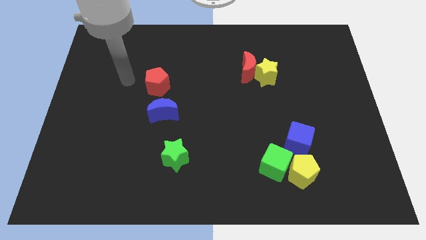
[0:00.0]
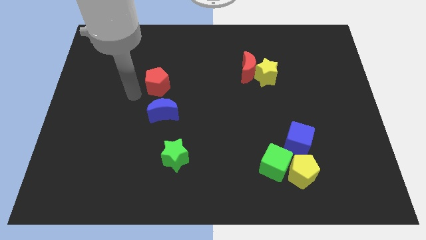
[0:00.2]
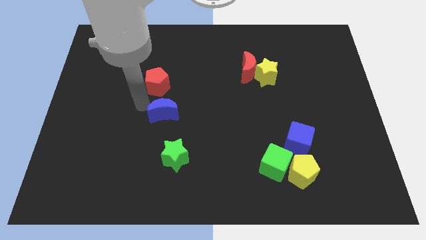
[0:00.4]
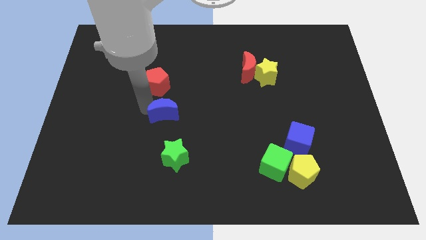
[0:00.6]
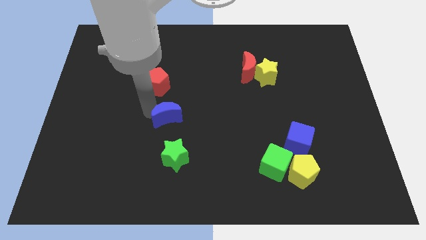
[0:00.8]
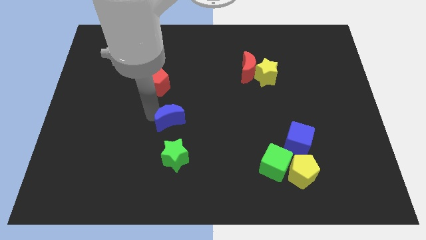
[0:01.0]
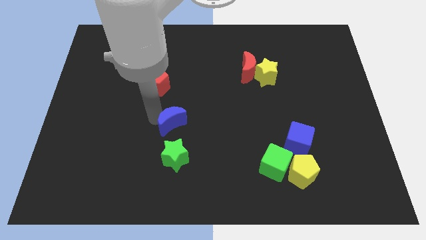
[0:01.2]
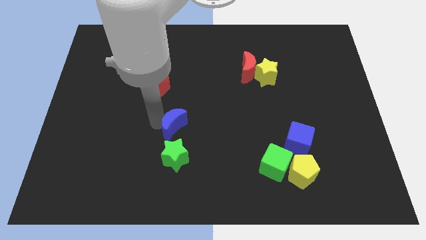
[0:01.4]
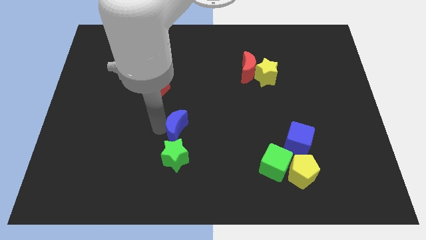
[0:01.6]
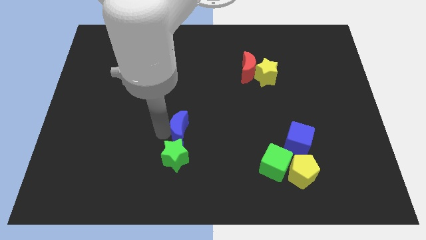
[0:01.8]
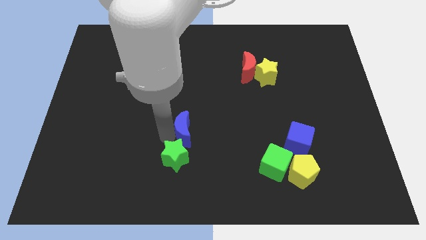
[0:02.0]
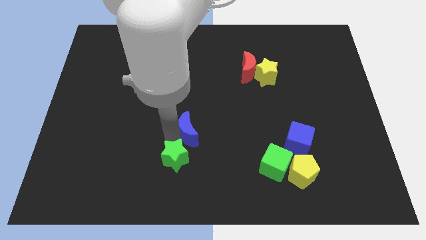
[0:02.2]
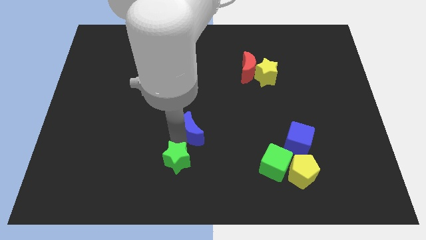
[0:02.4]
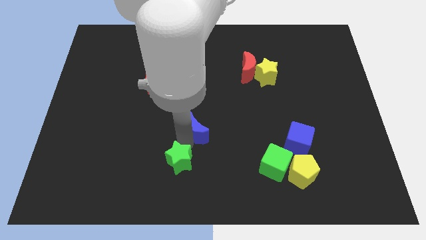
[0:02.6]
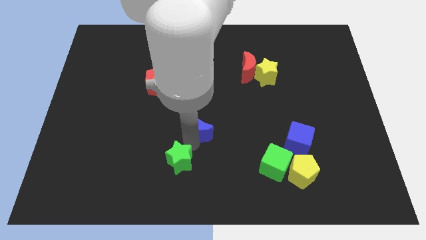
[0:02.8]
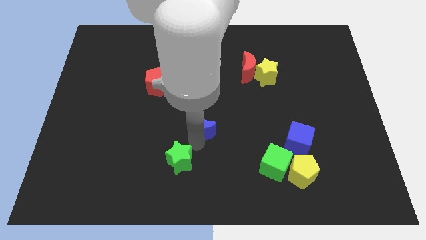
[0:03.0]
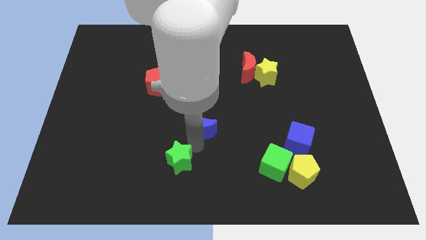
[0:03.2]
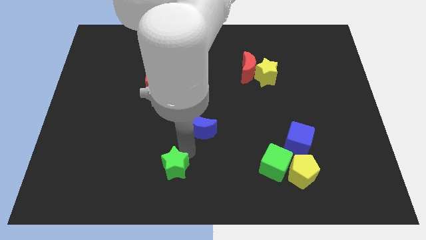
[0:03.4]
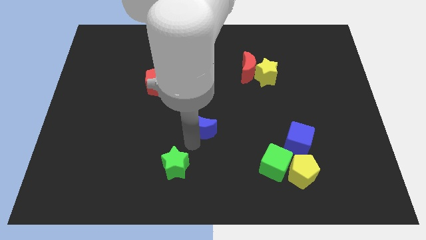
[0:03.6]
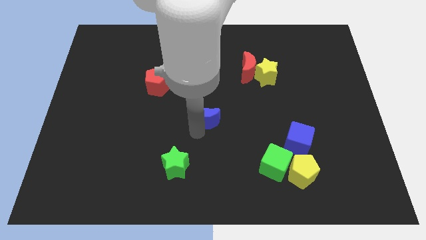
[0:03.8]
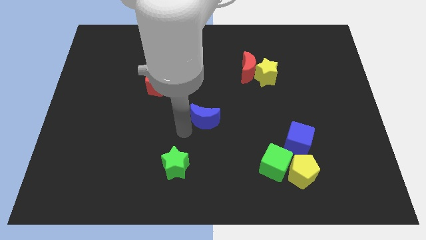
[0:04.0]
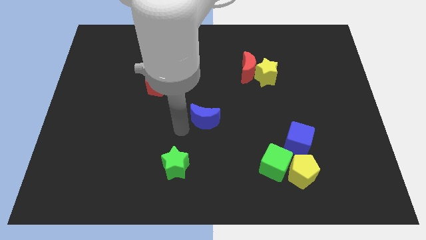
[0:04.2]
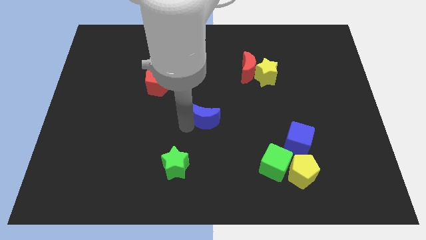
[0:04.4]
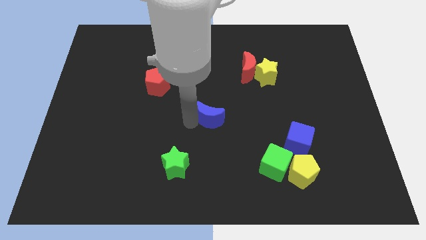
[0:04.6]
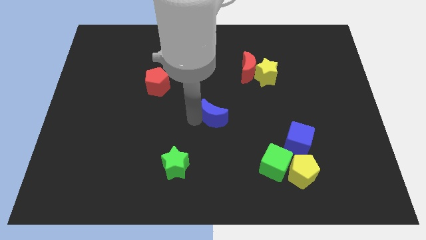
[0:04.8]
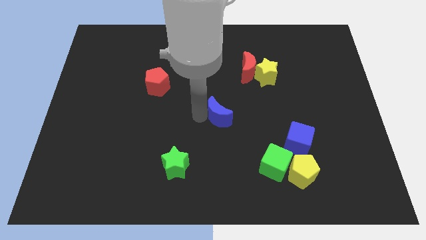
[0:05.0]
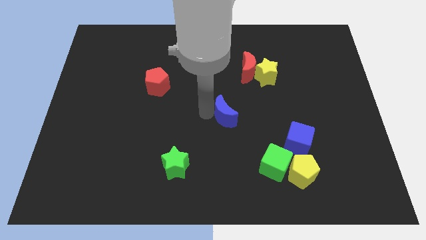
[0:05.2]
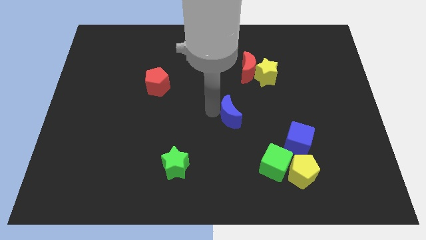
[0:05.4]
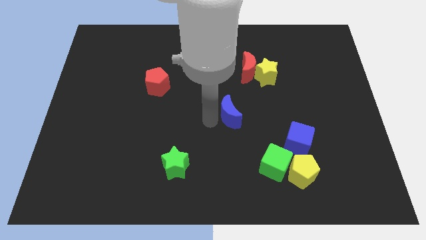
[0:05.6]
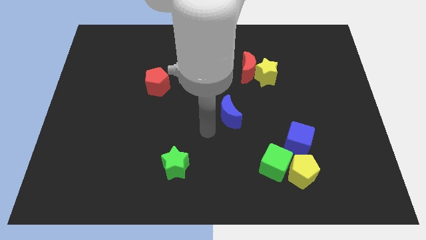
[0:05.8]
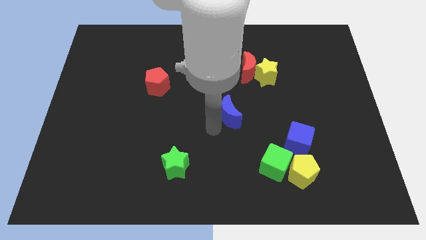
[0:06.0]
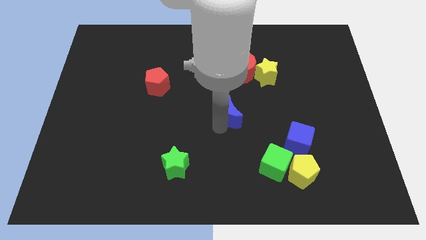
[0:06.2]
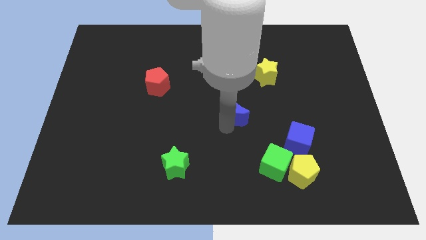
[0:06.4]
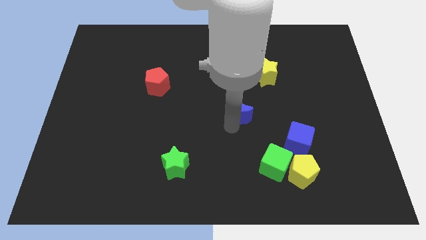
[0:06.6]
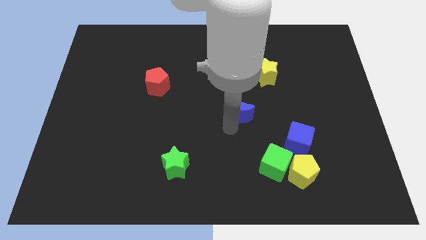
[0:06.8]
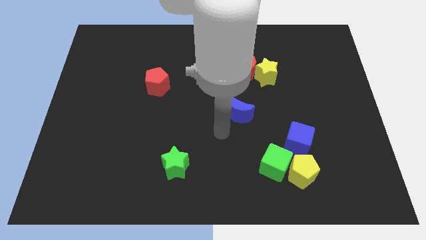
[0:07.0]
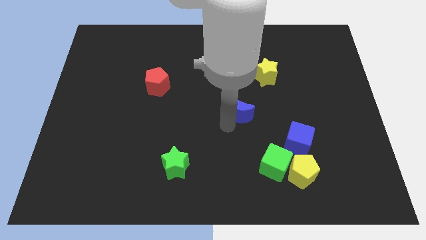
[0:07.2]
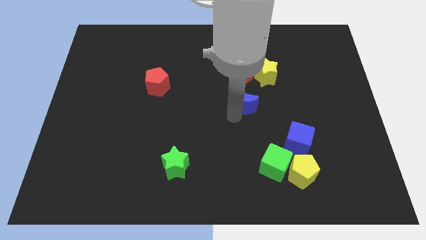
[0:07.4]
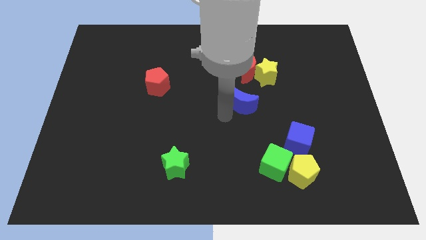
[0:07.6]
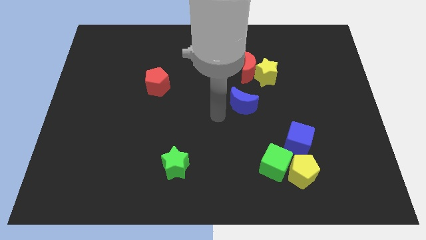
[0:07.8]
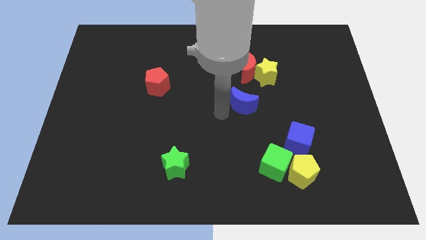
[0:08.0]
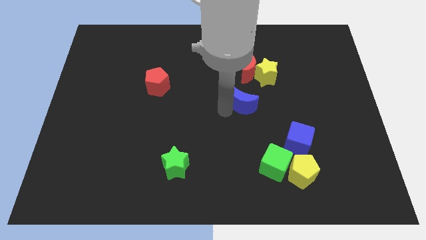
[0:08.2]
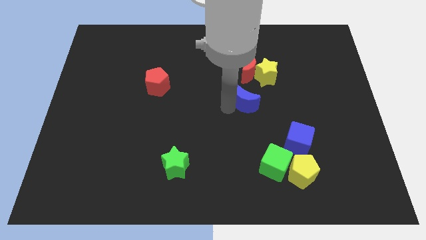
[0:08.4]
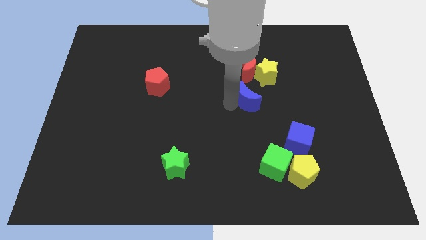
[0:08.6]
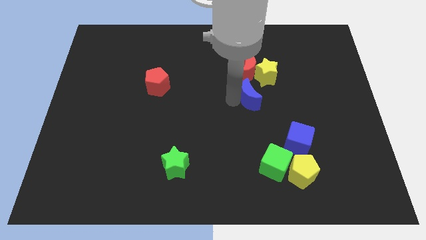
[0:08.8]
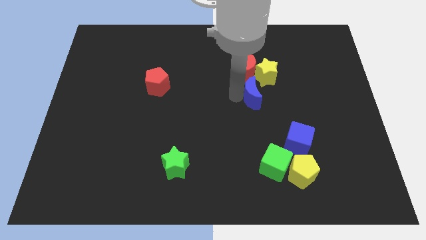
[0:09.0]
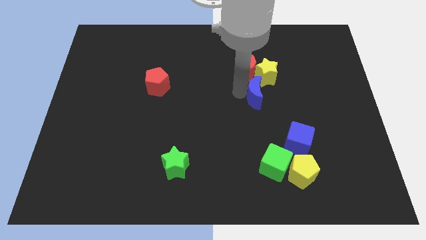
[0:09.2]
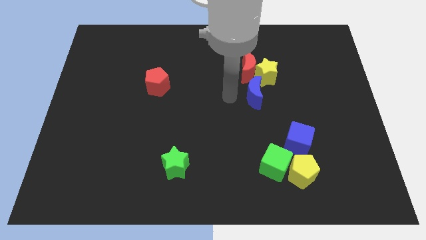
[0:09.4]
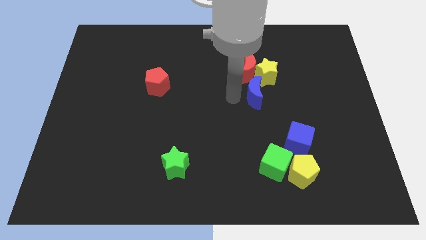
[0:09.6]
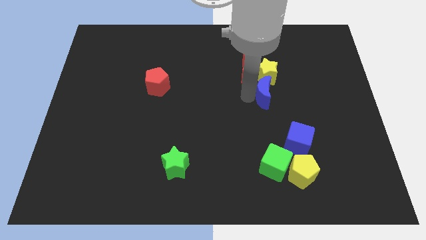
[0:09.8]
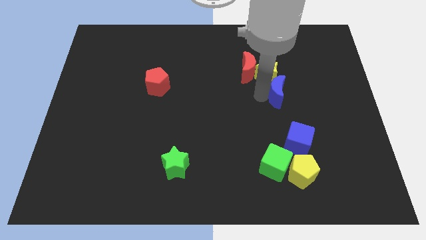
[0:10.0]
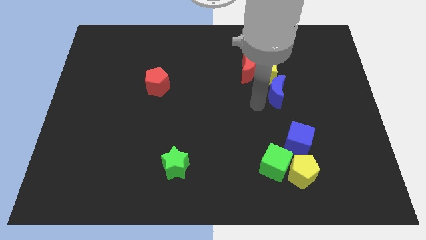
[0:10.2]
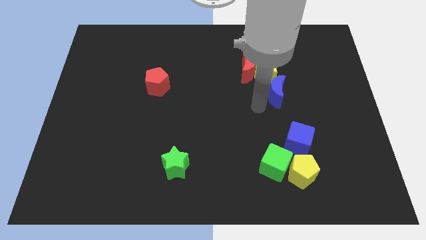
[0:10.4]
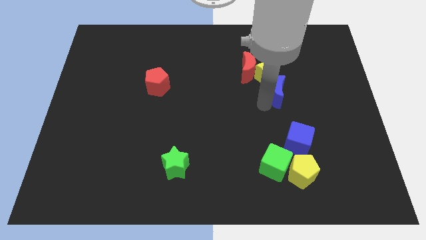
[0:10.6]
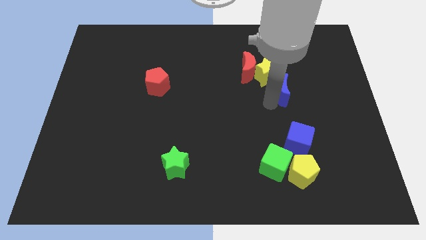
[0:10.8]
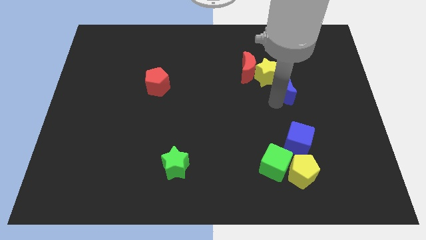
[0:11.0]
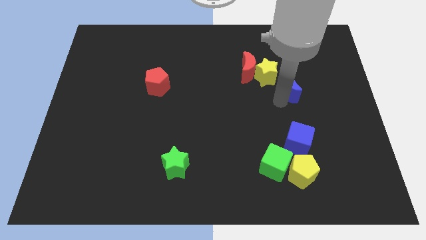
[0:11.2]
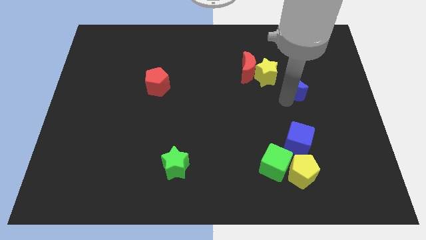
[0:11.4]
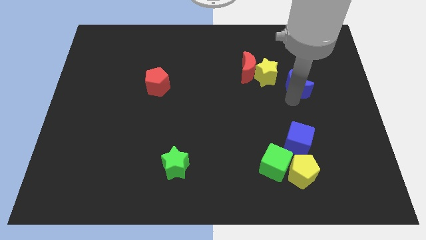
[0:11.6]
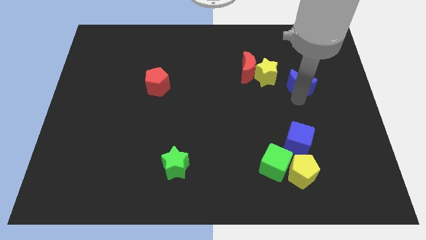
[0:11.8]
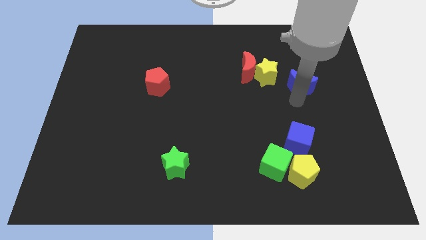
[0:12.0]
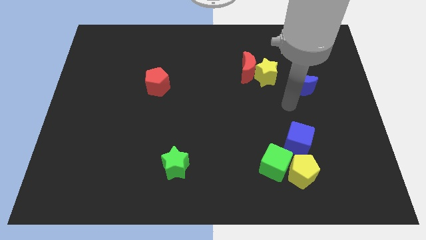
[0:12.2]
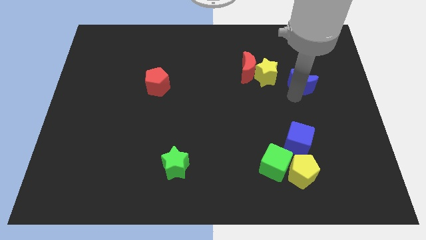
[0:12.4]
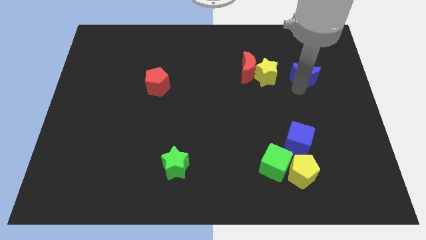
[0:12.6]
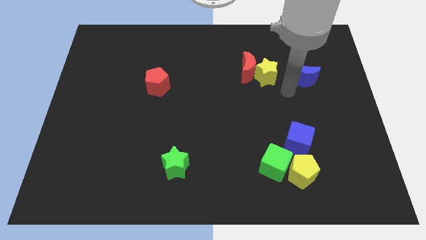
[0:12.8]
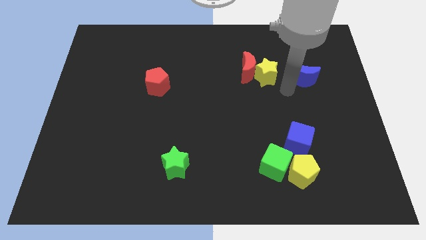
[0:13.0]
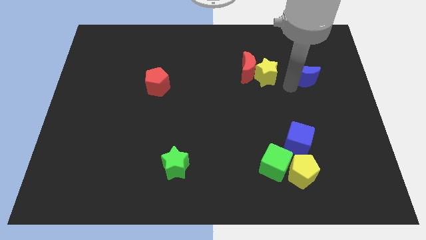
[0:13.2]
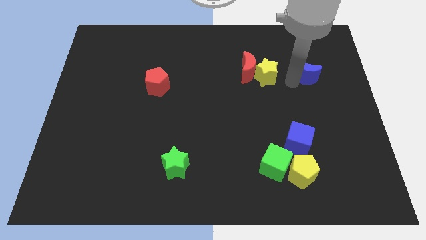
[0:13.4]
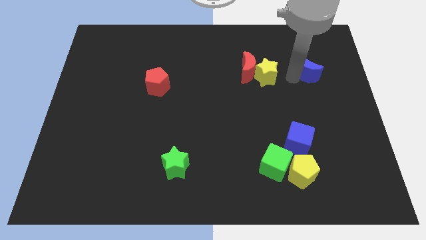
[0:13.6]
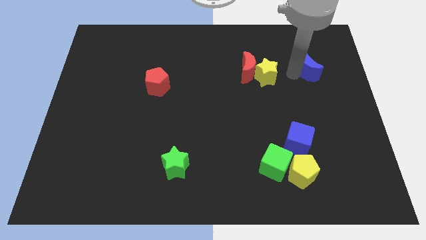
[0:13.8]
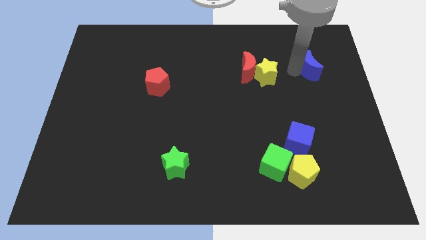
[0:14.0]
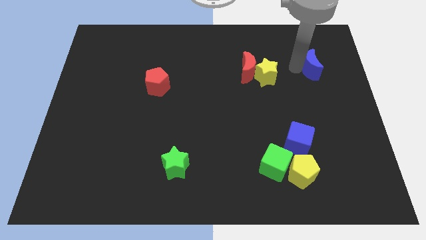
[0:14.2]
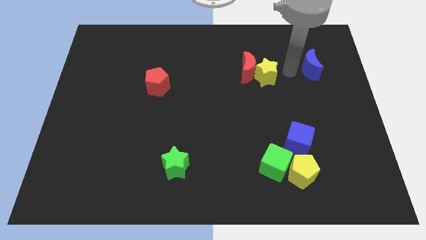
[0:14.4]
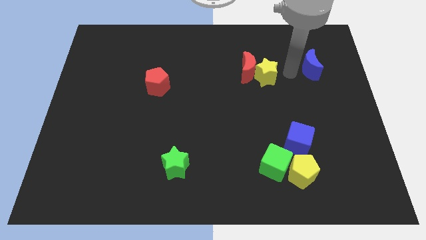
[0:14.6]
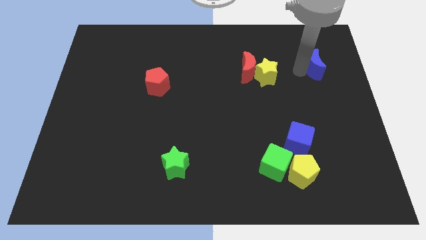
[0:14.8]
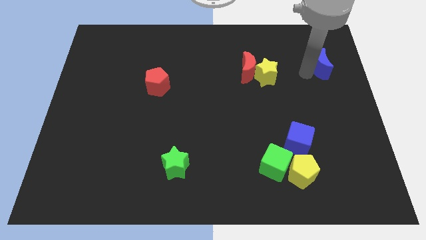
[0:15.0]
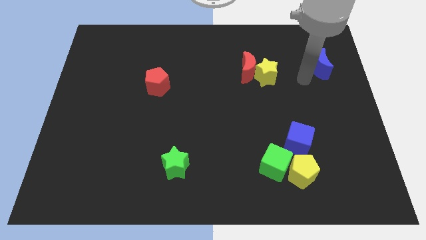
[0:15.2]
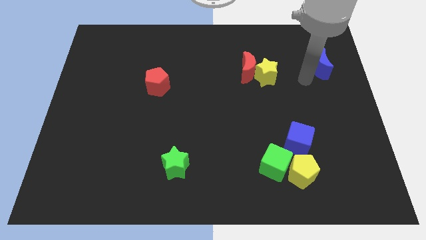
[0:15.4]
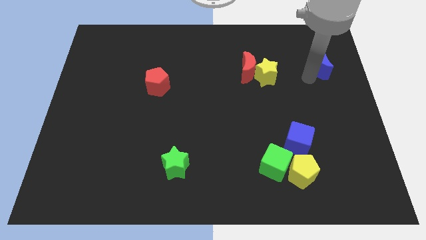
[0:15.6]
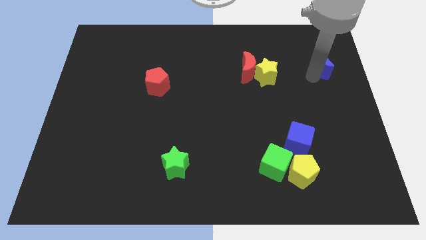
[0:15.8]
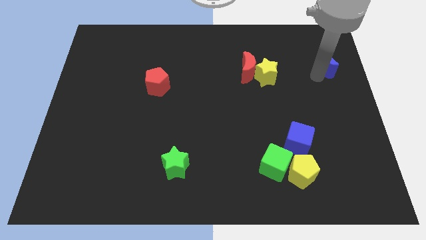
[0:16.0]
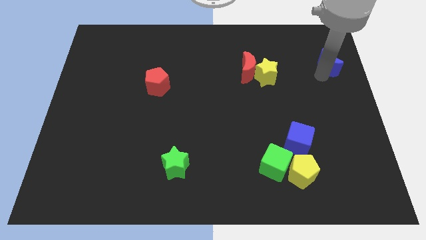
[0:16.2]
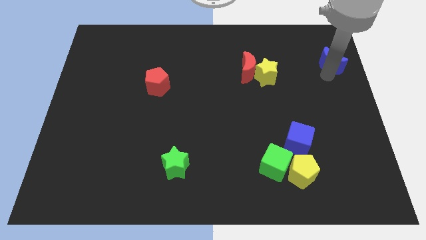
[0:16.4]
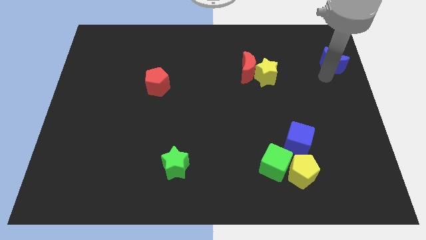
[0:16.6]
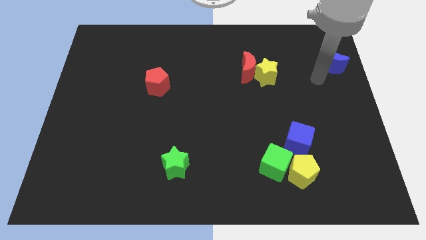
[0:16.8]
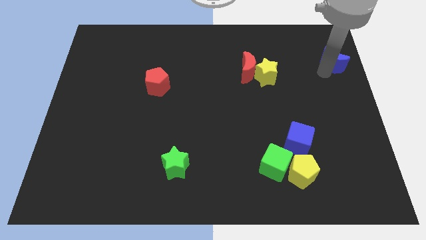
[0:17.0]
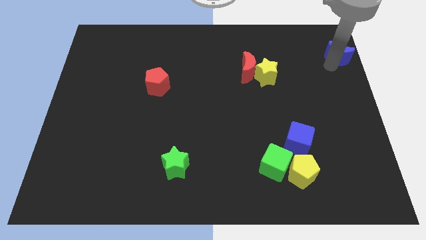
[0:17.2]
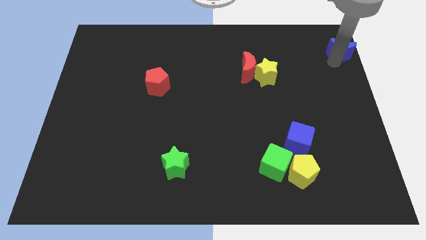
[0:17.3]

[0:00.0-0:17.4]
slide the blue moon to the top right corner
